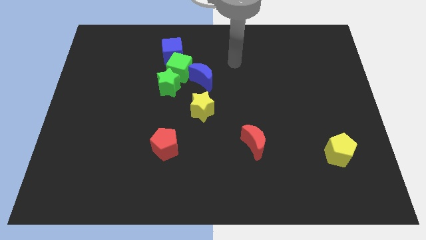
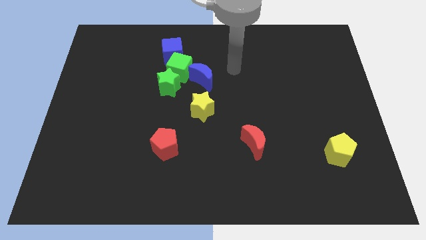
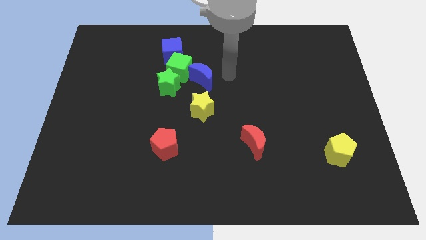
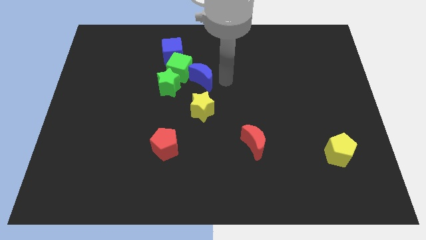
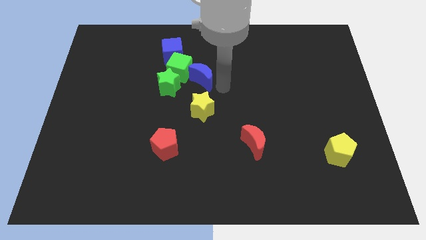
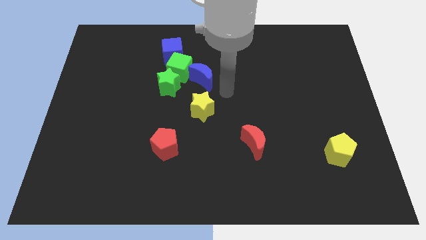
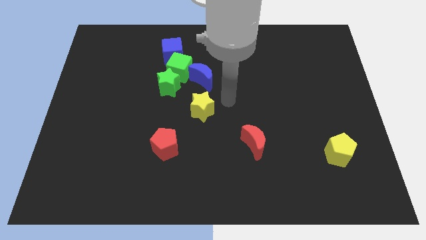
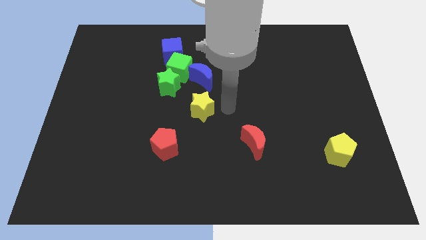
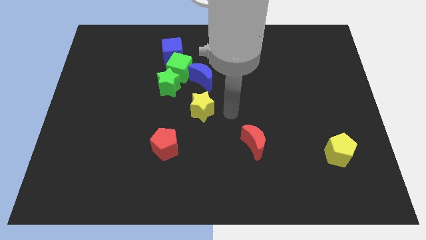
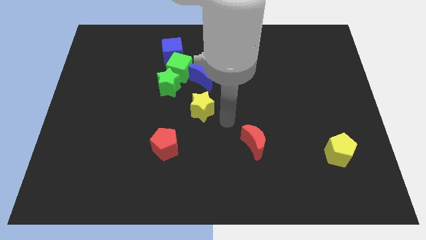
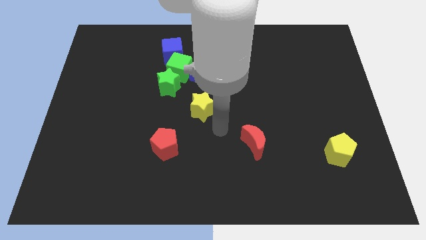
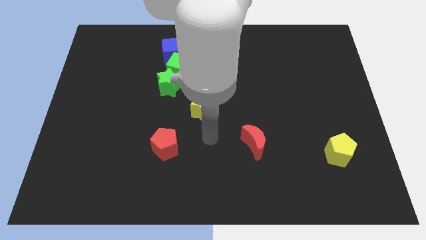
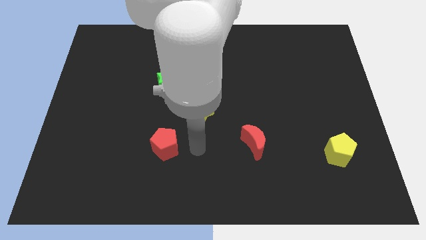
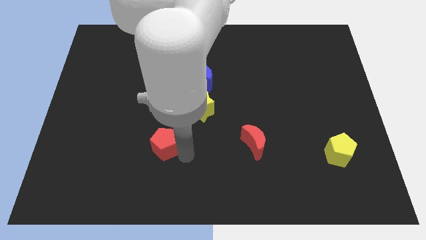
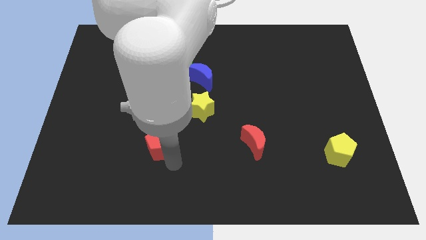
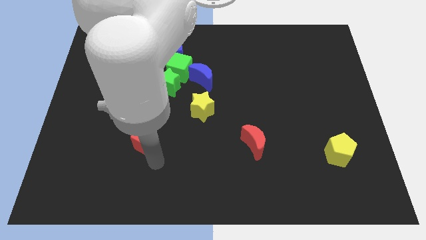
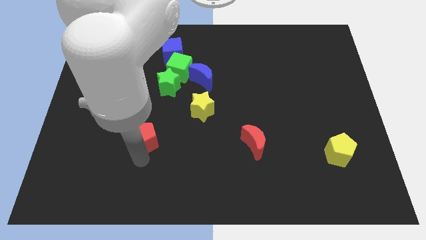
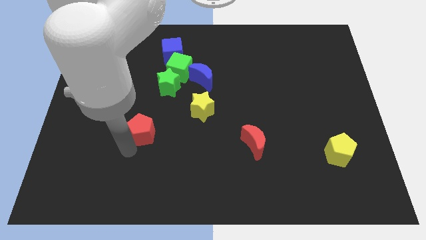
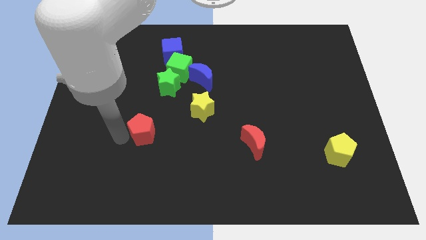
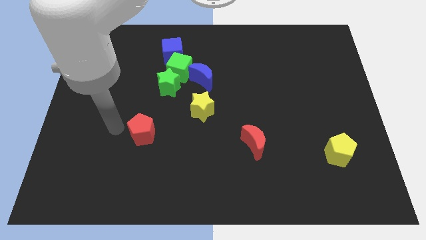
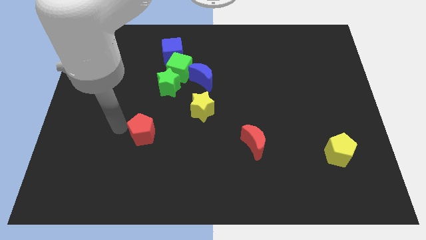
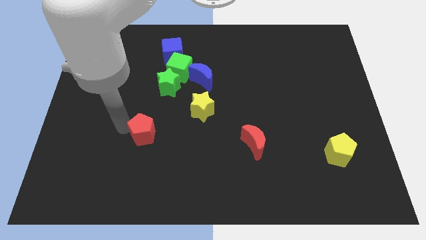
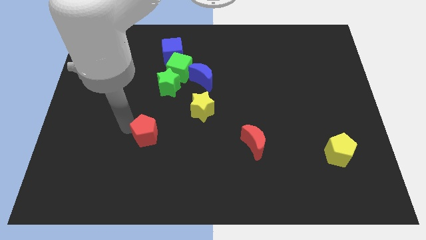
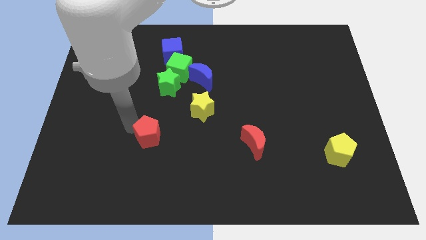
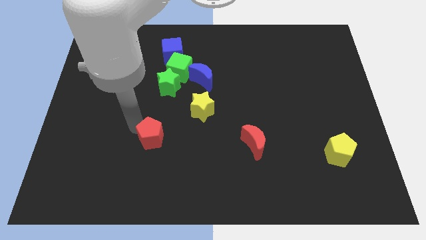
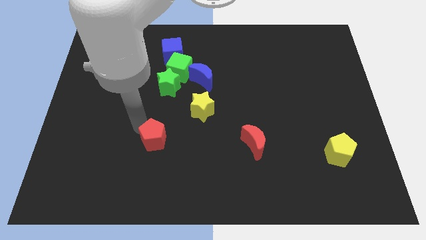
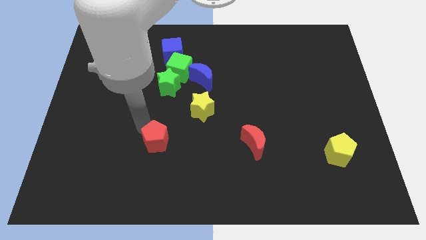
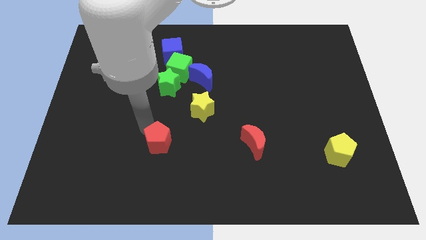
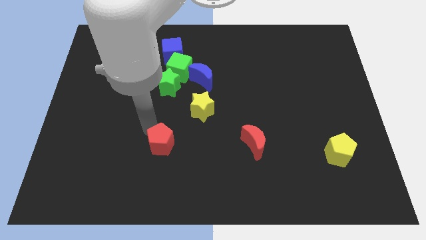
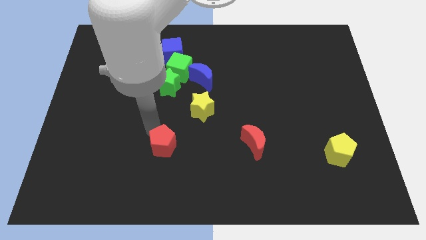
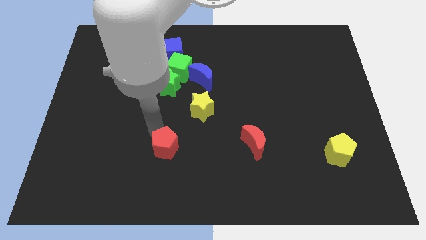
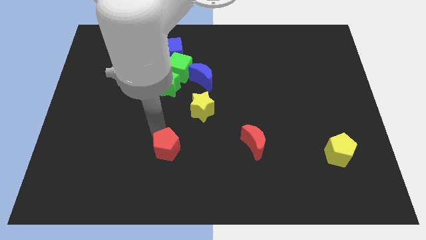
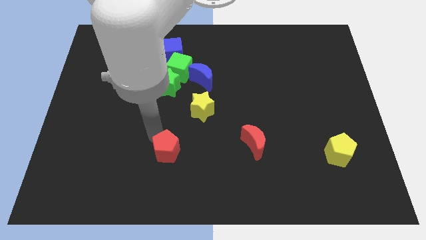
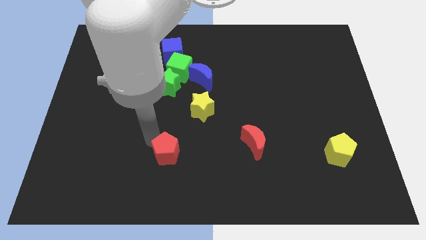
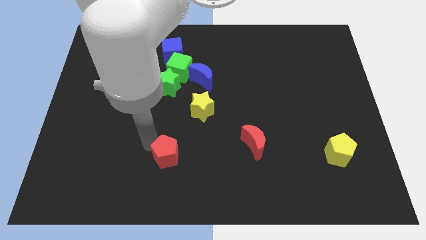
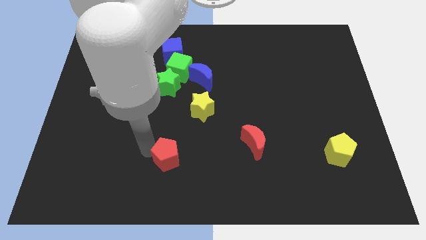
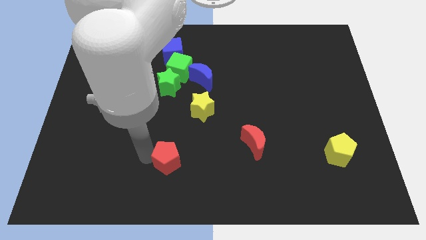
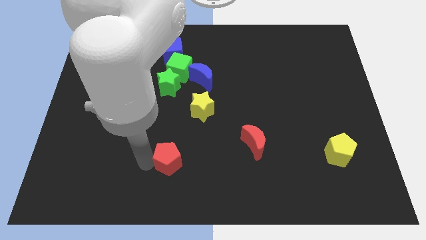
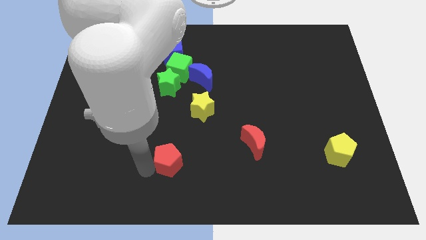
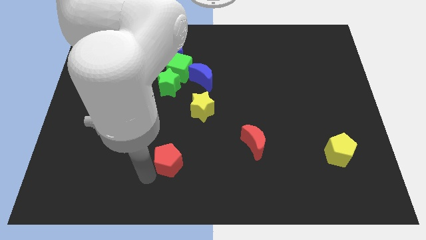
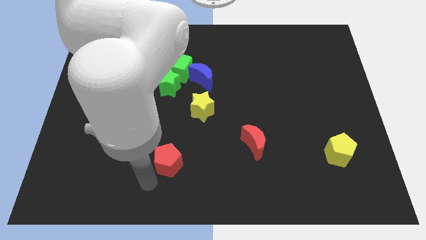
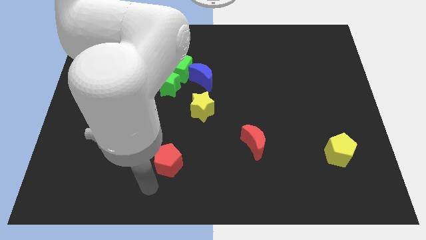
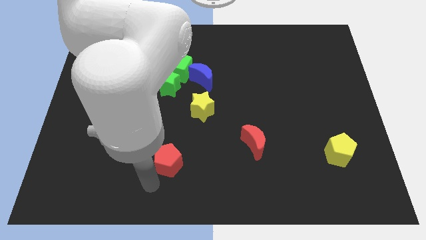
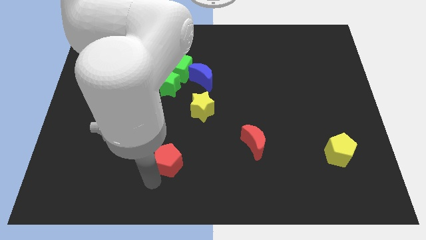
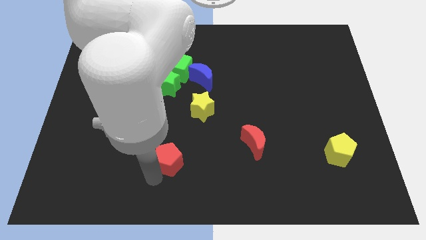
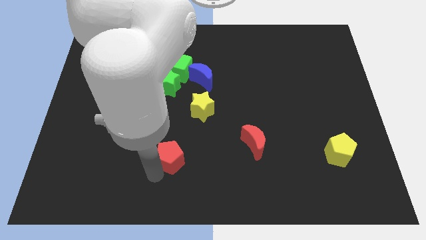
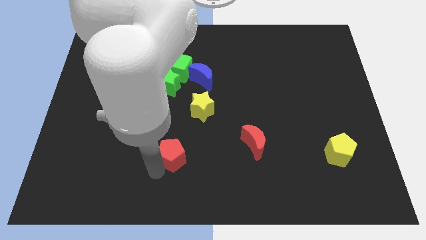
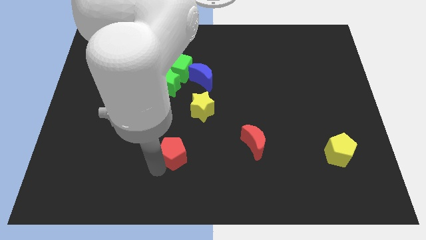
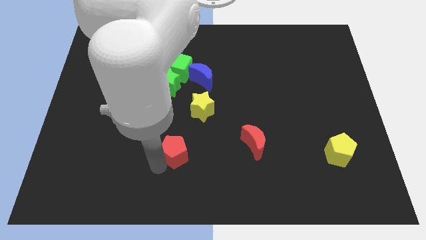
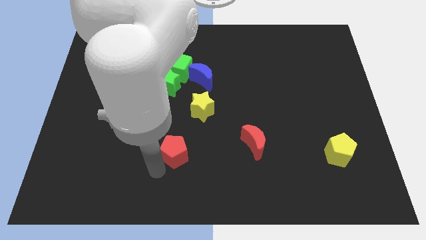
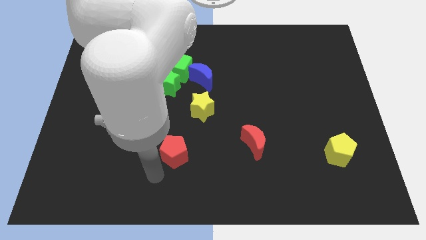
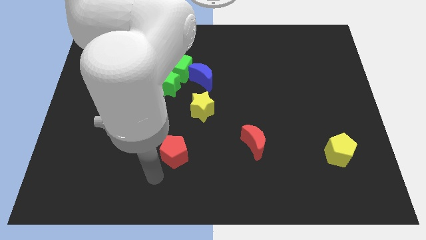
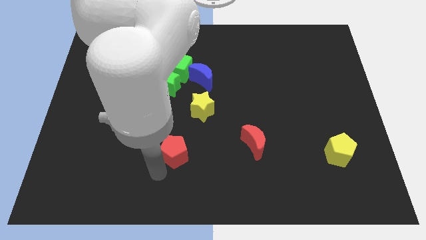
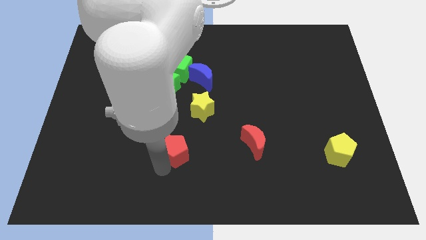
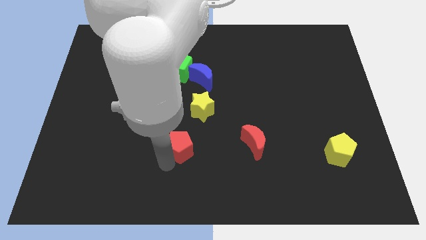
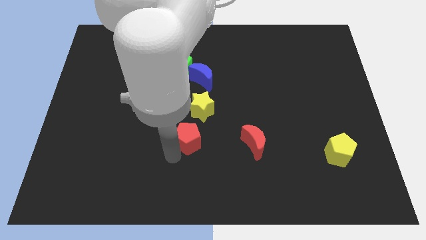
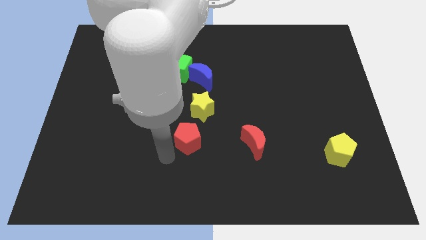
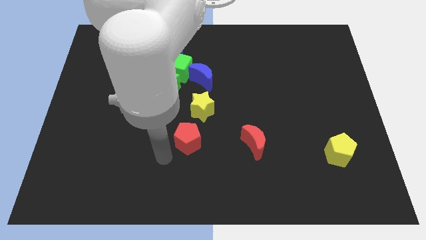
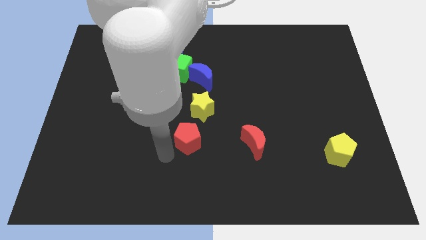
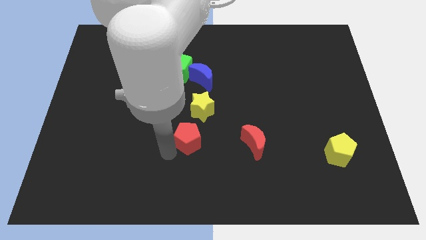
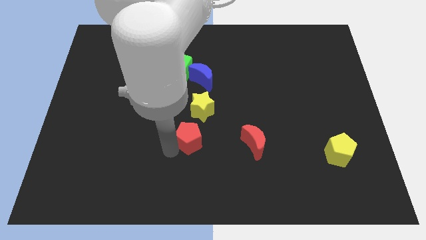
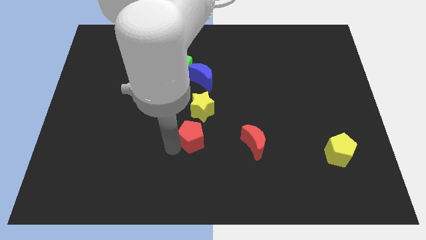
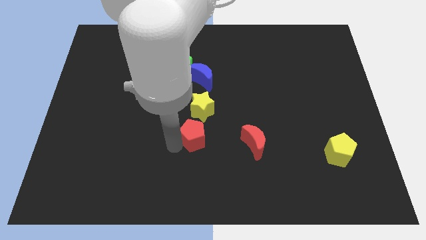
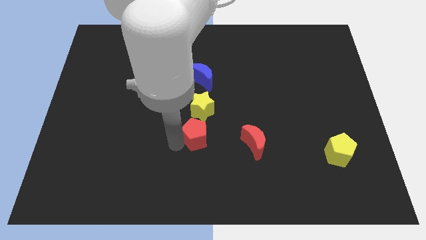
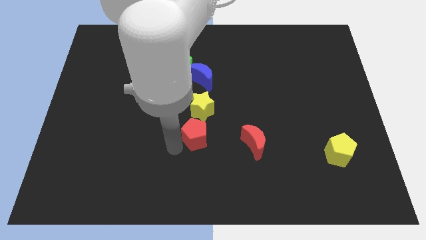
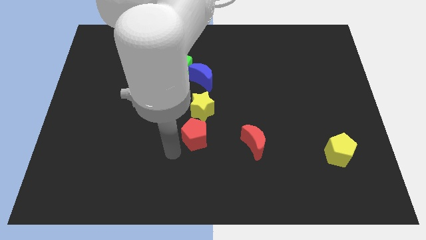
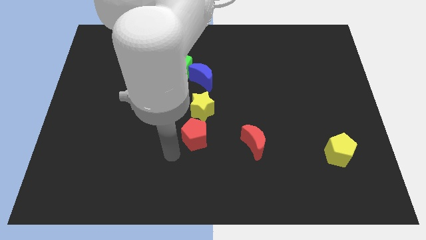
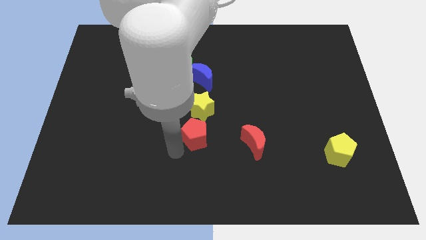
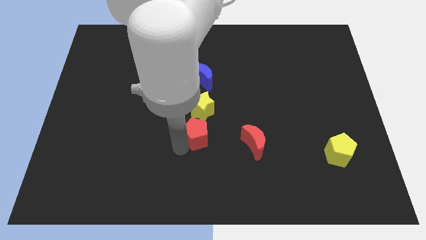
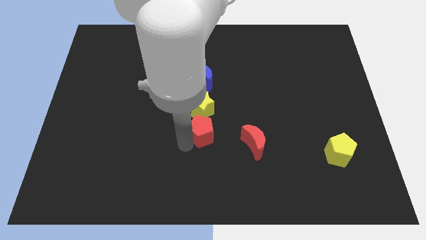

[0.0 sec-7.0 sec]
push the red pentagon diagonally up and to the right a bit

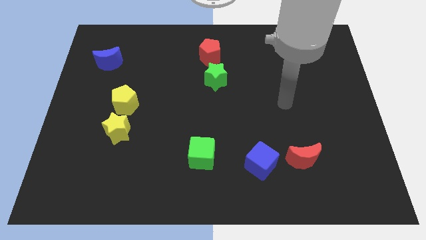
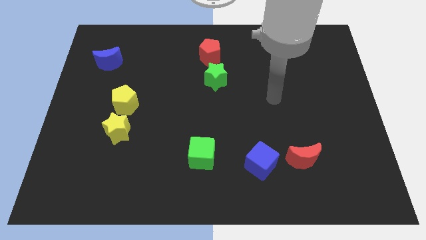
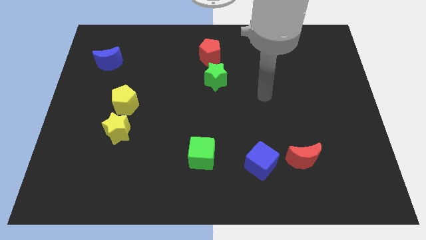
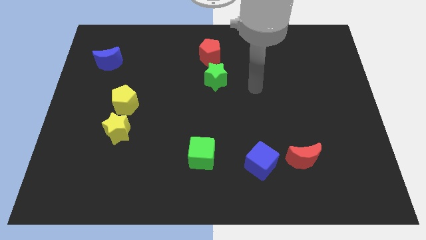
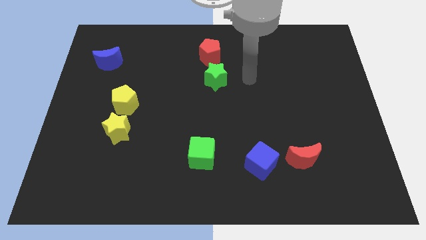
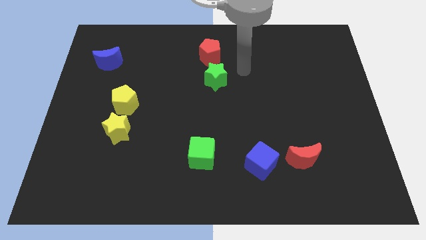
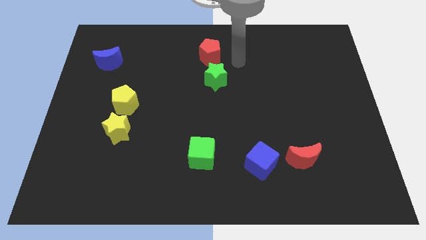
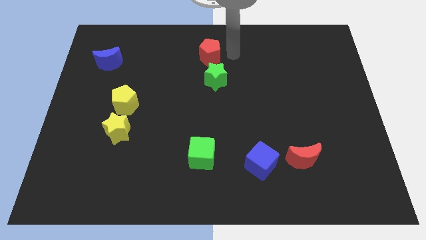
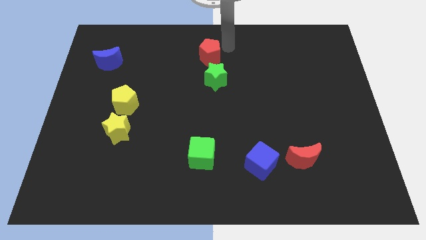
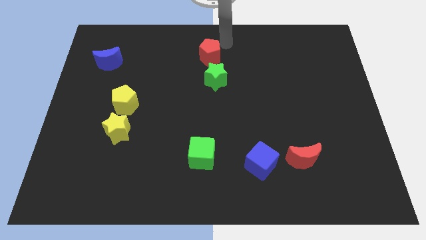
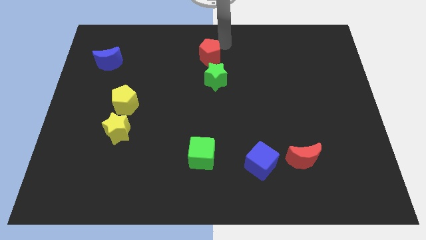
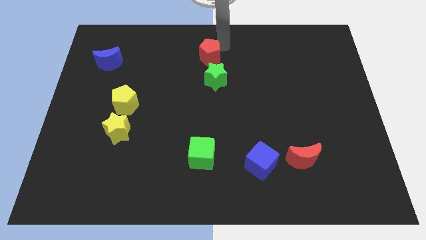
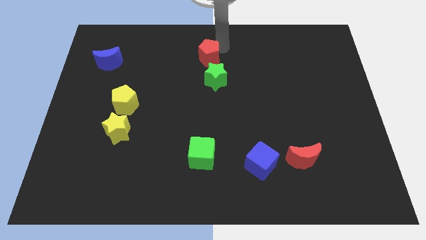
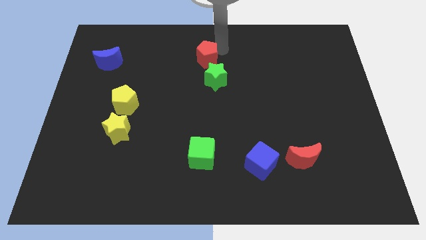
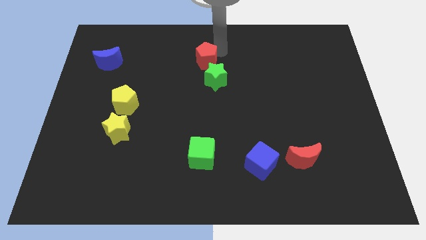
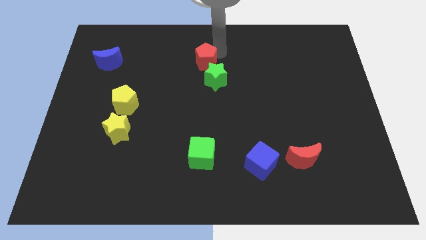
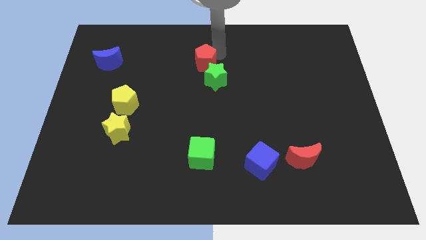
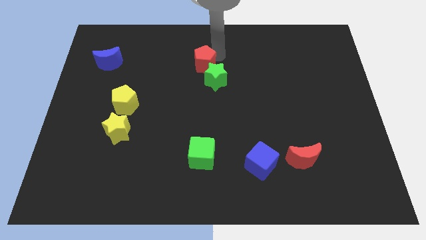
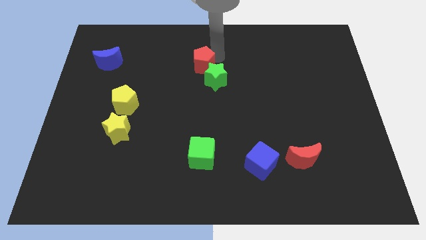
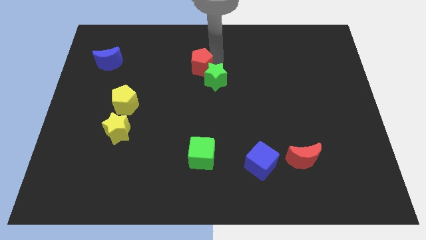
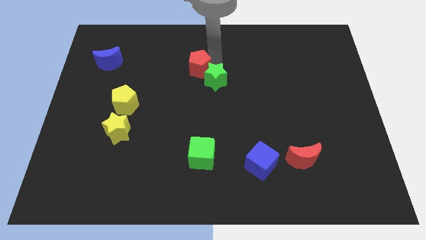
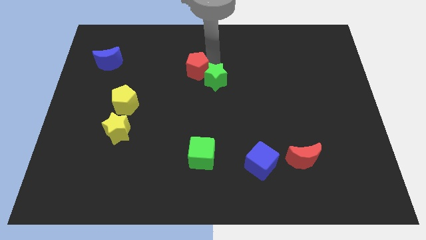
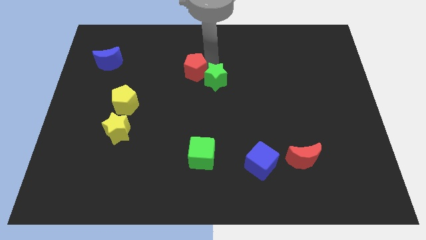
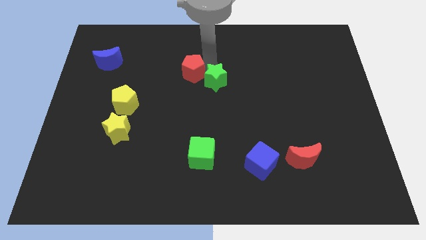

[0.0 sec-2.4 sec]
slide the red pentagon diagonally downwards and left a bit
